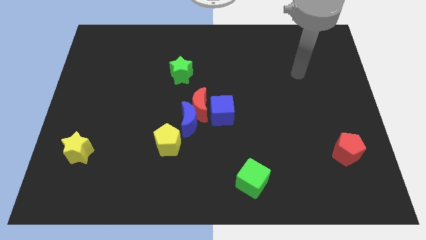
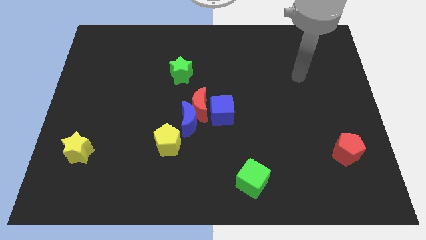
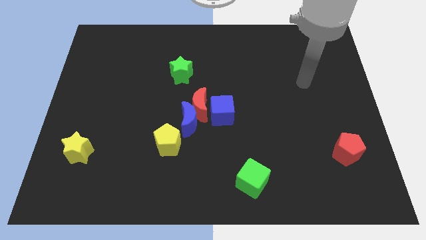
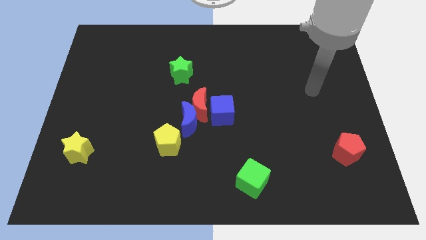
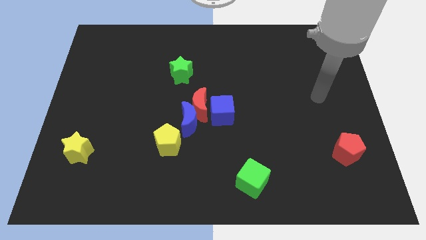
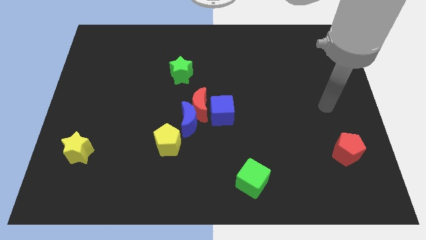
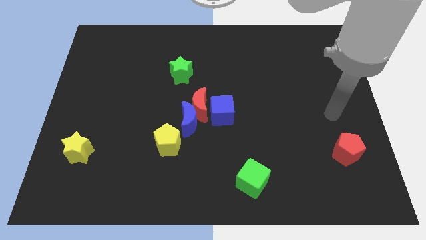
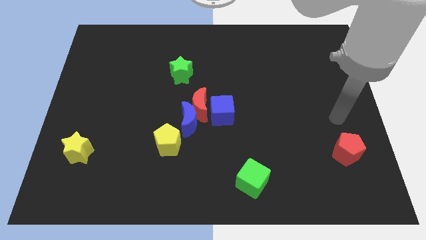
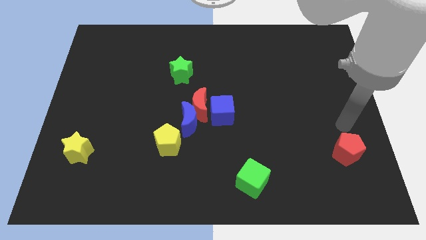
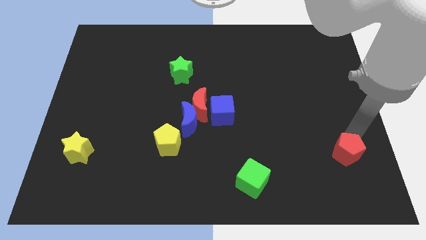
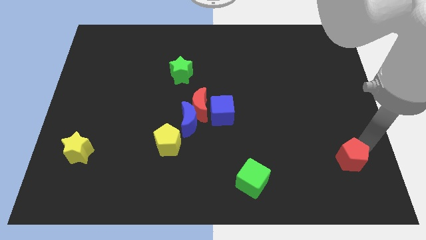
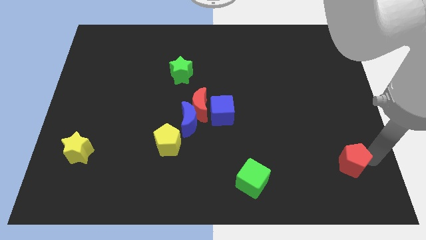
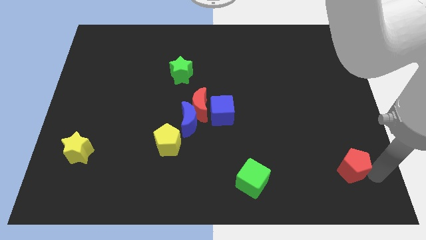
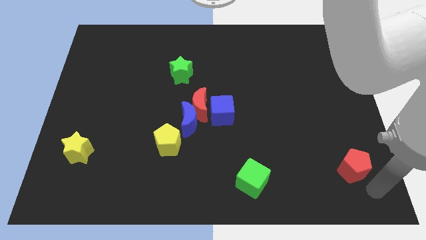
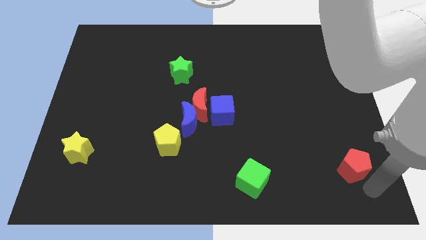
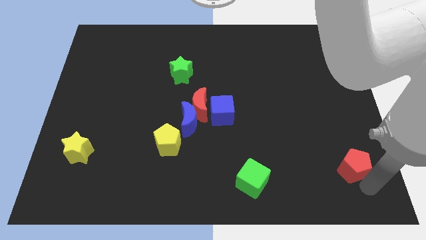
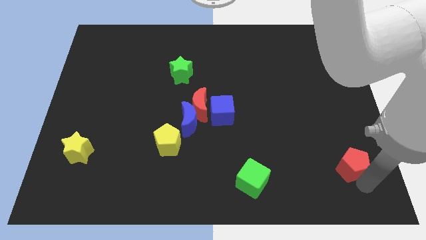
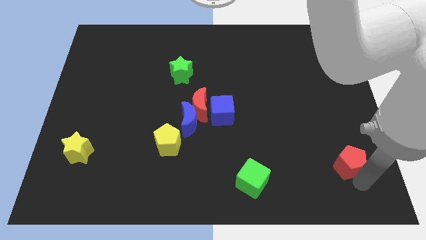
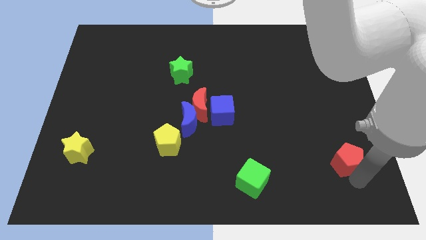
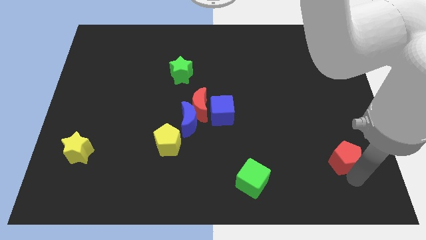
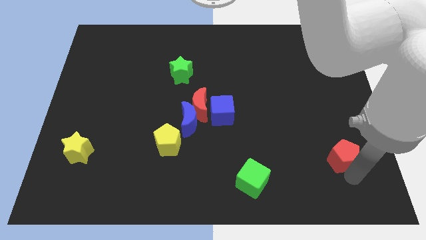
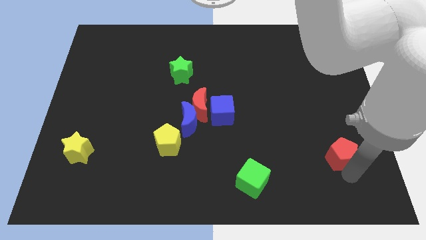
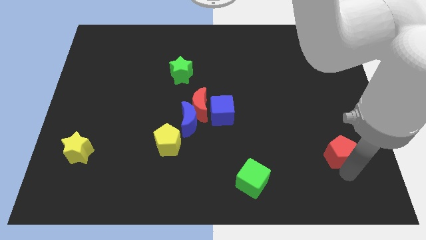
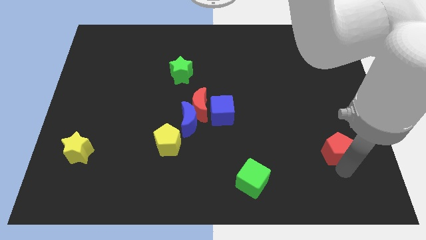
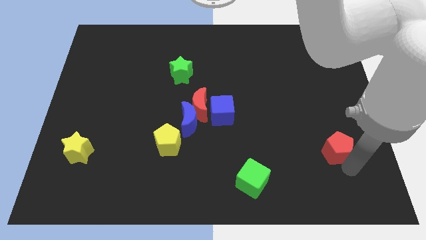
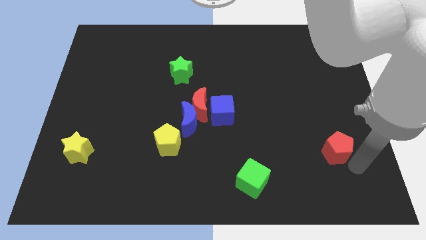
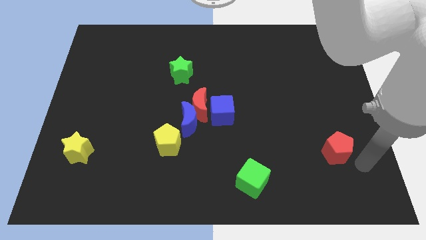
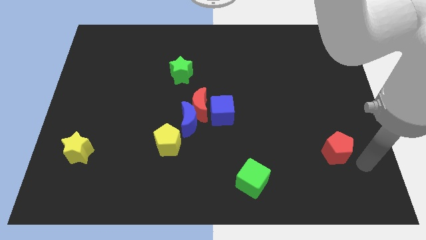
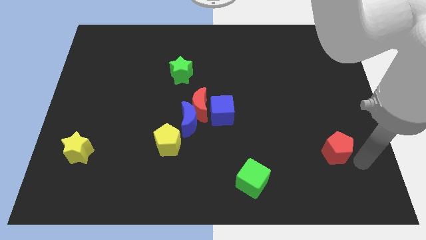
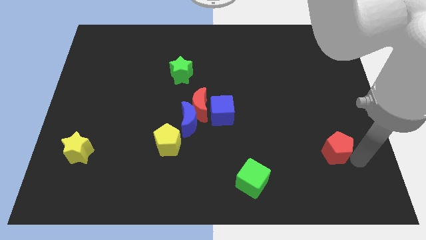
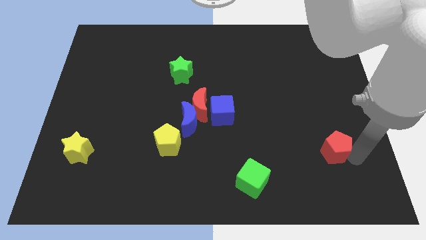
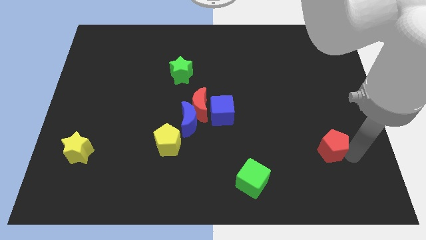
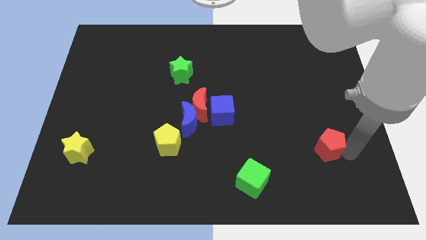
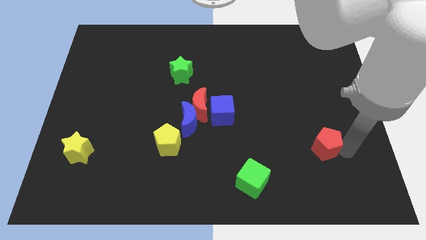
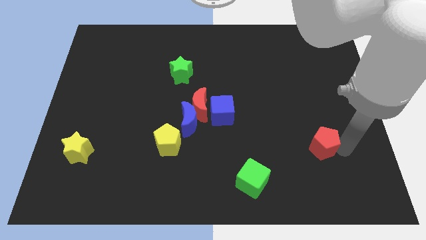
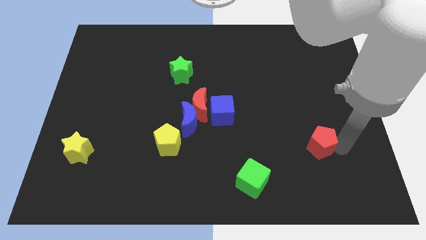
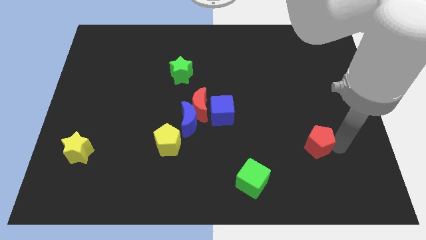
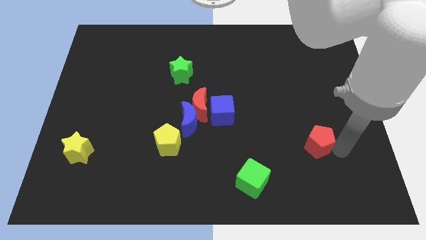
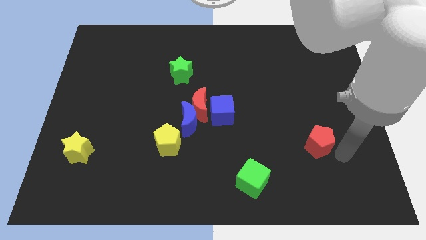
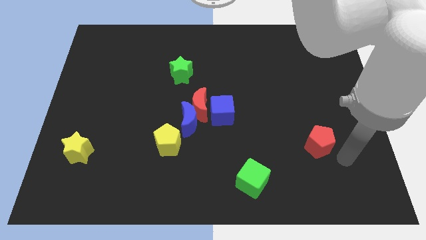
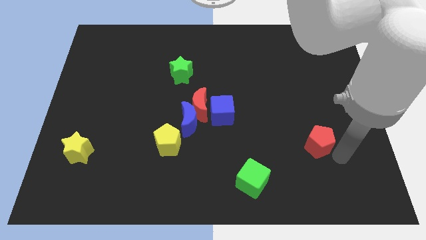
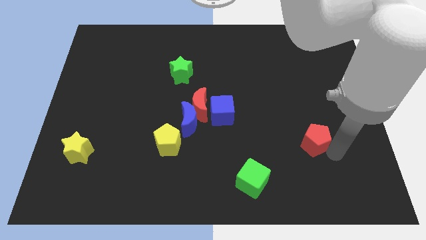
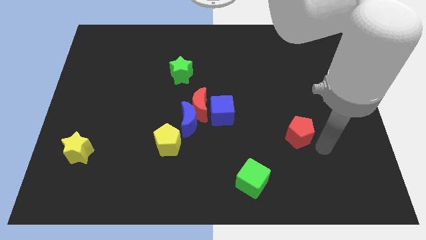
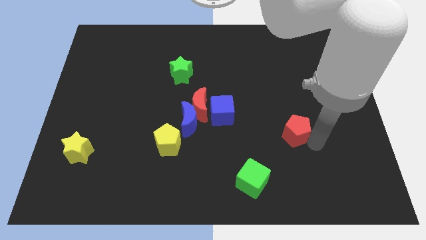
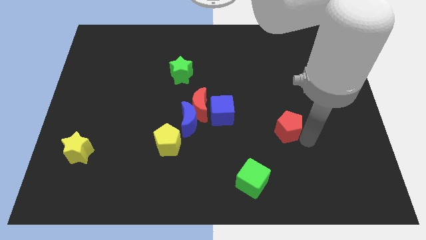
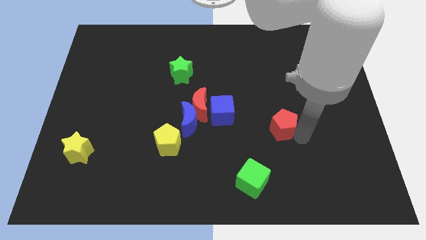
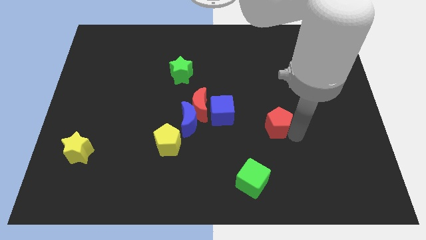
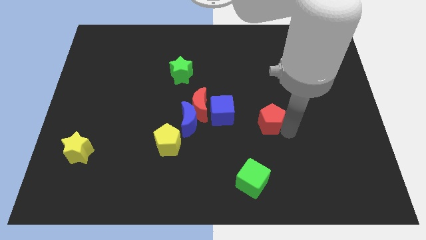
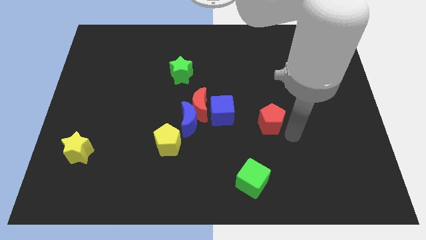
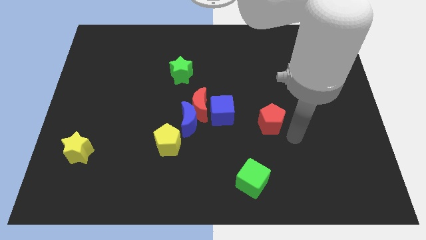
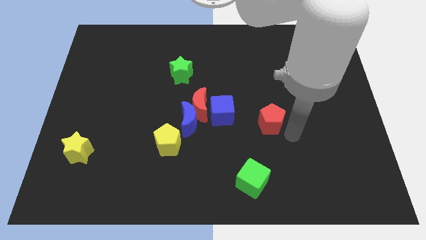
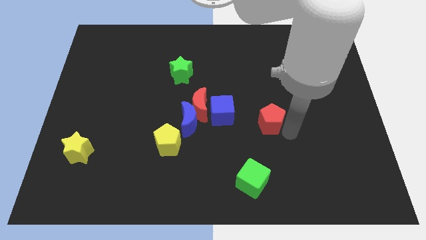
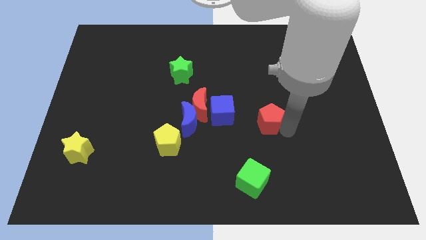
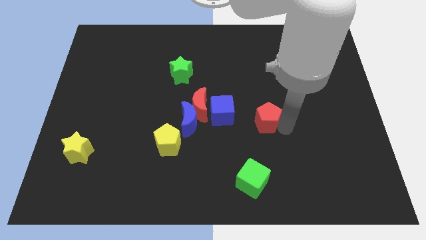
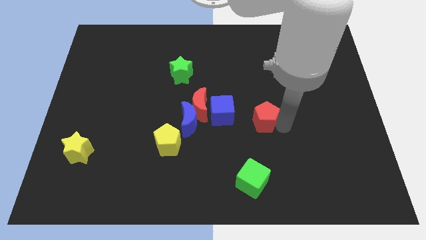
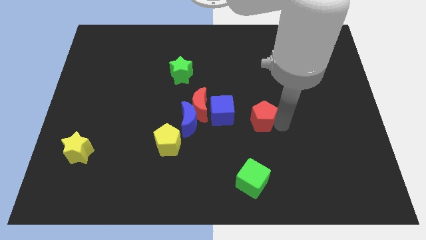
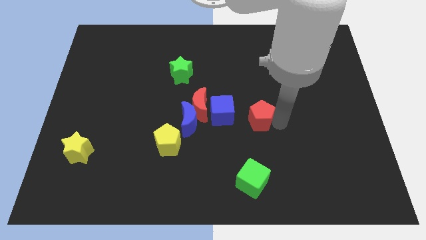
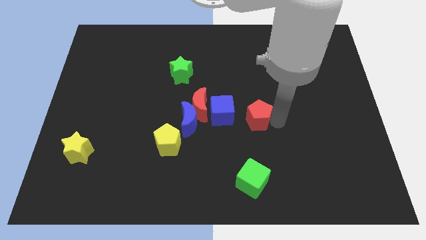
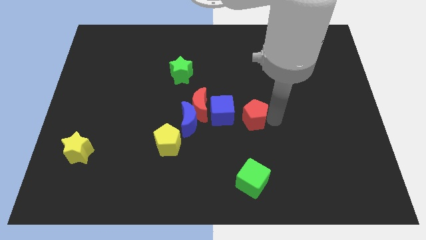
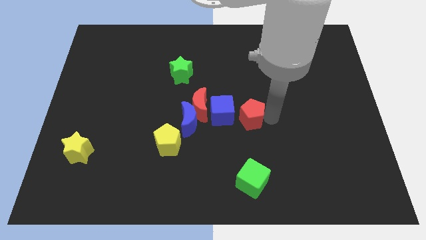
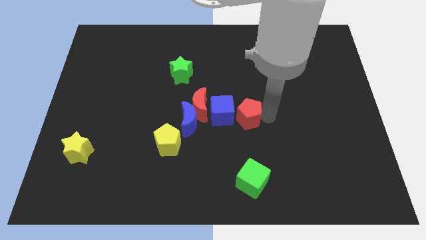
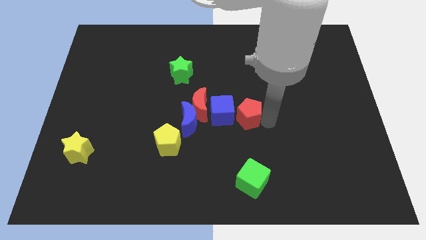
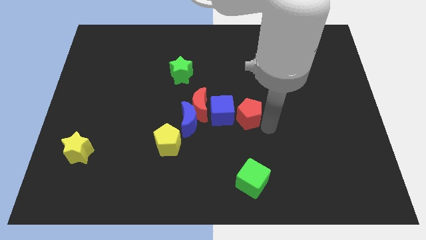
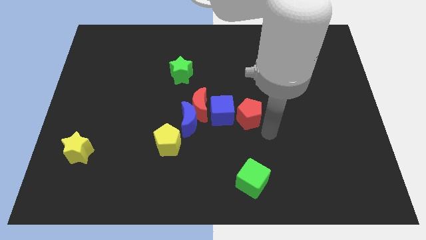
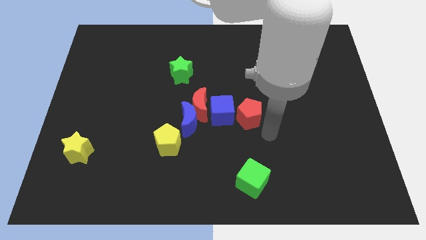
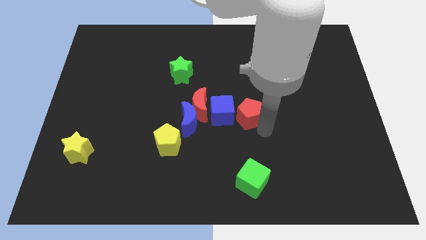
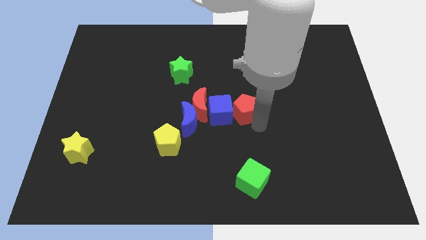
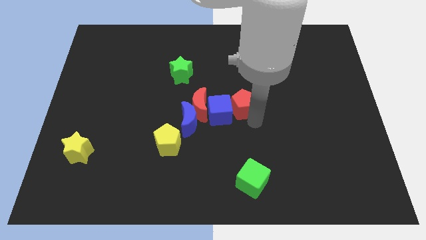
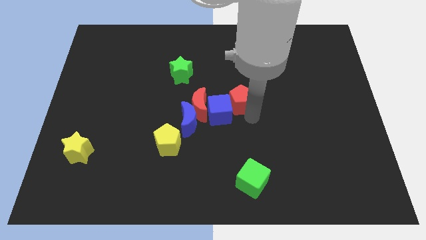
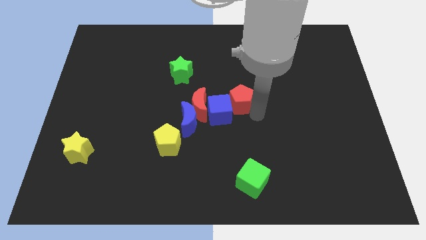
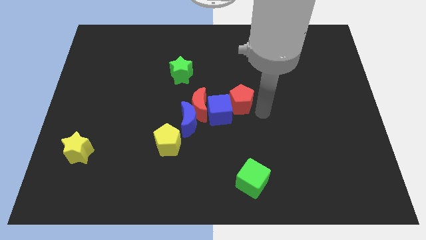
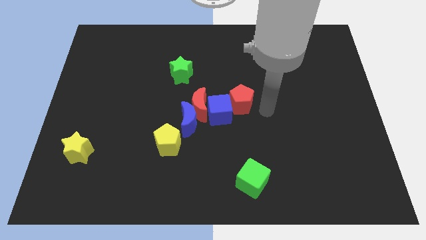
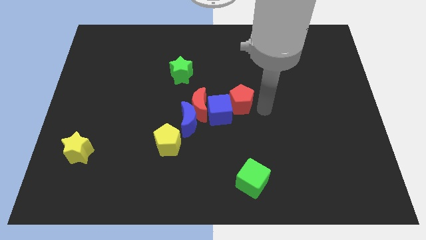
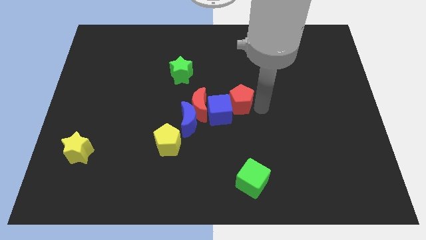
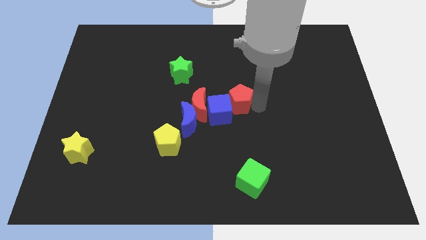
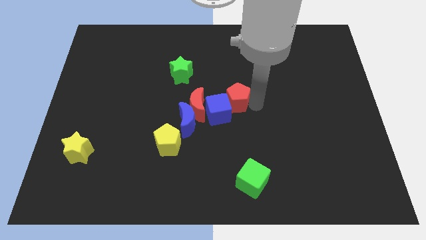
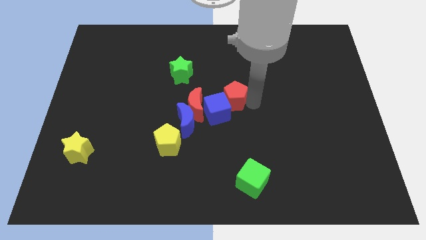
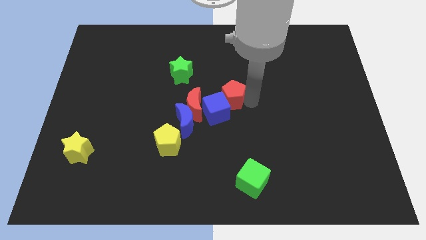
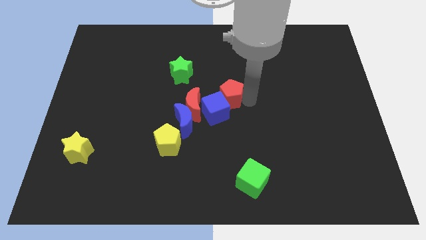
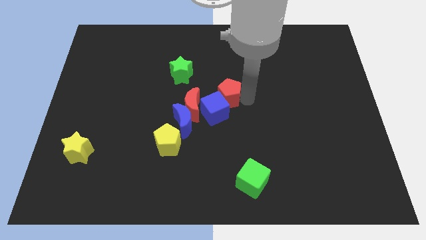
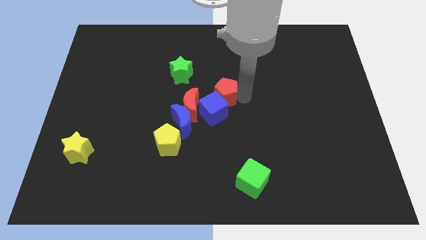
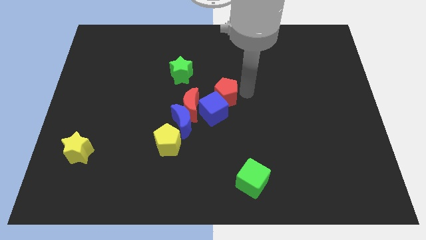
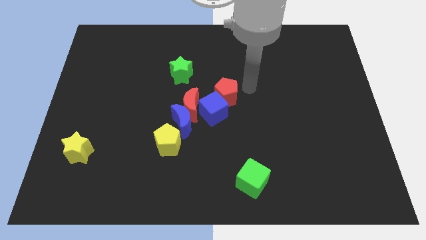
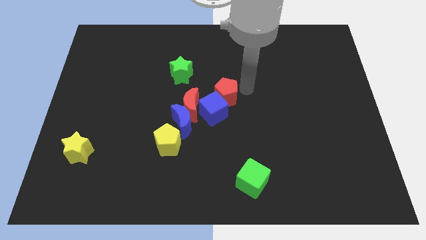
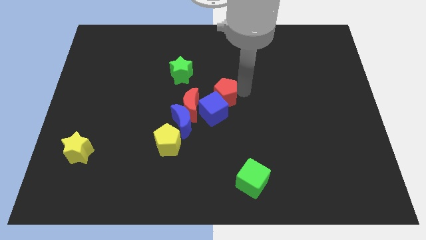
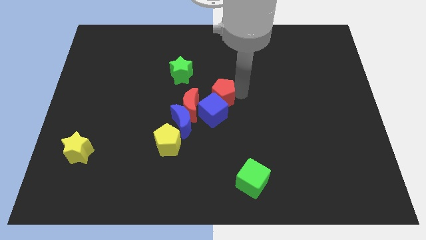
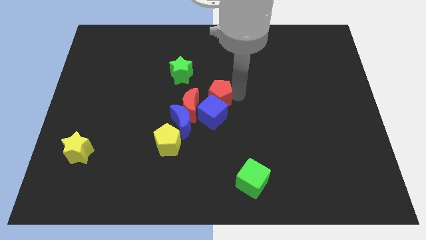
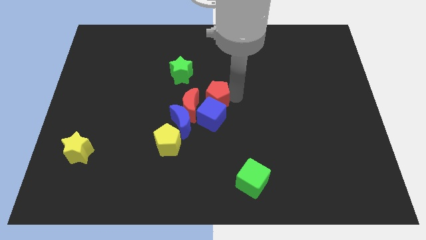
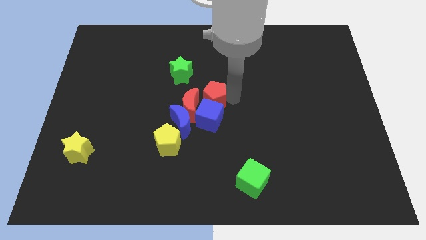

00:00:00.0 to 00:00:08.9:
move the red pentagon to the red moon
